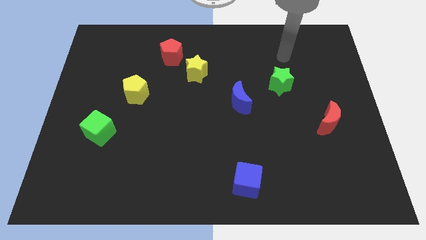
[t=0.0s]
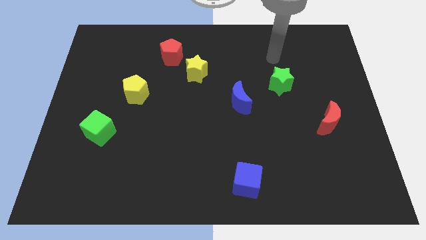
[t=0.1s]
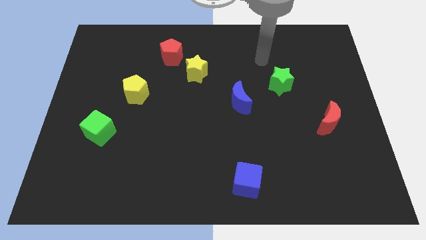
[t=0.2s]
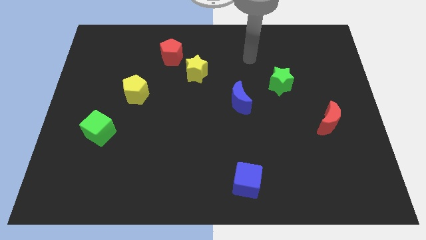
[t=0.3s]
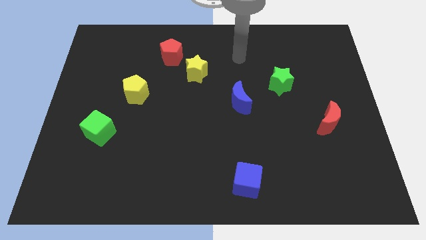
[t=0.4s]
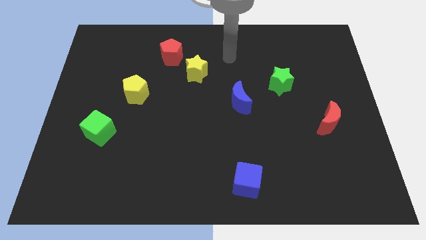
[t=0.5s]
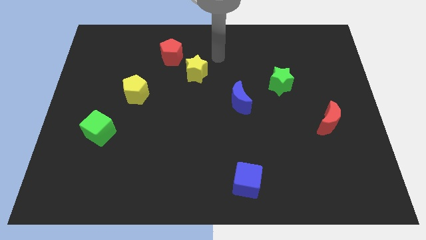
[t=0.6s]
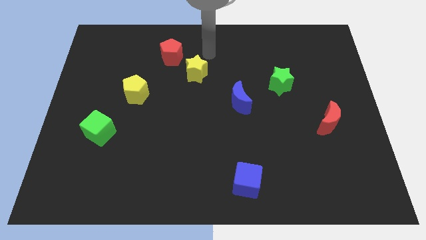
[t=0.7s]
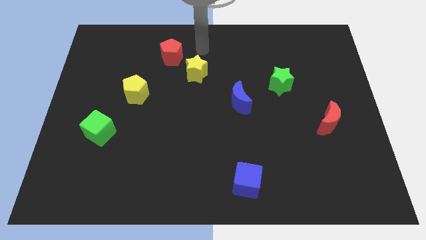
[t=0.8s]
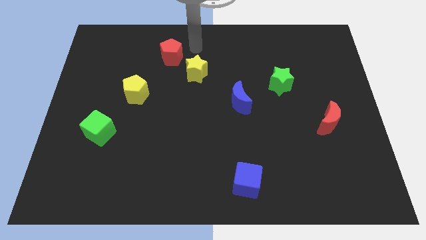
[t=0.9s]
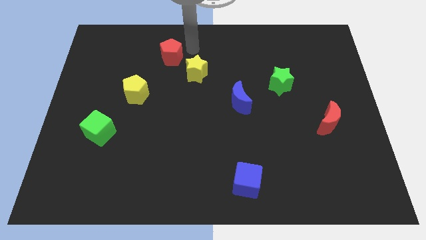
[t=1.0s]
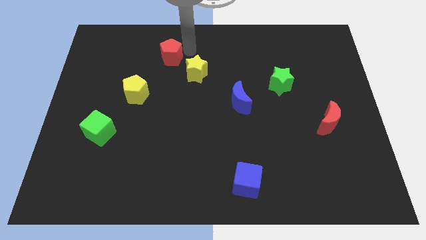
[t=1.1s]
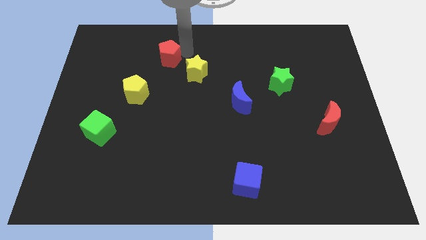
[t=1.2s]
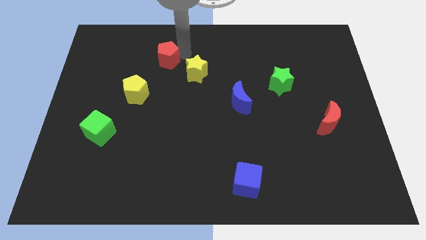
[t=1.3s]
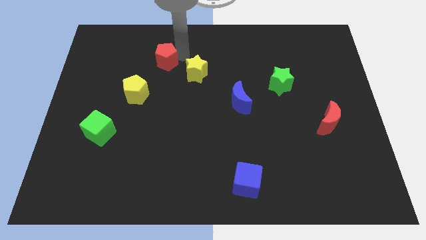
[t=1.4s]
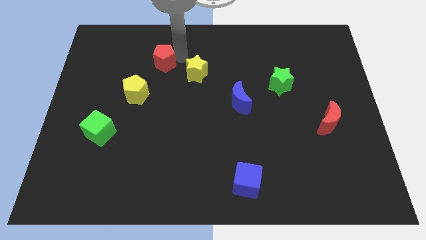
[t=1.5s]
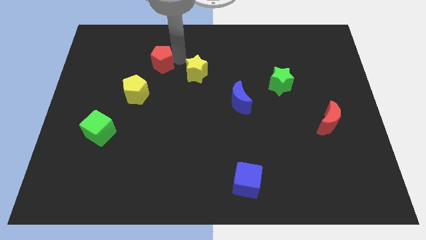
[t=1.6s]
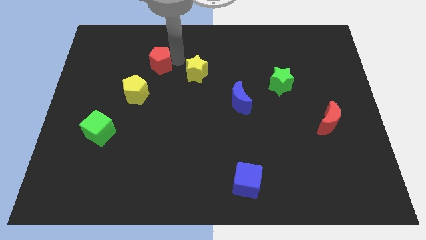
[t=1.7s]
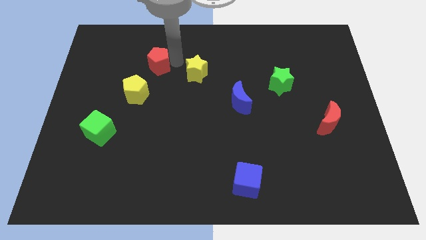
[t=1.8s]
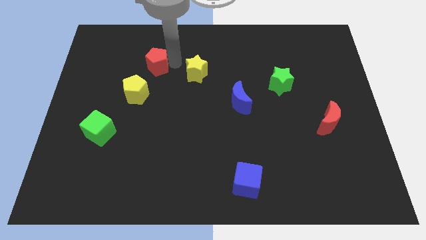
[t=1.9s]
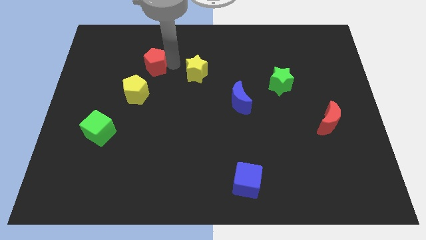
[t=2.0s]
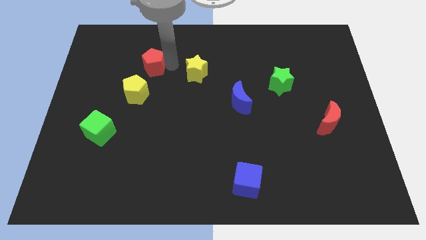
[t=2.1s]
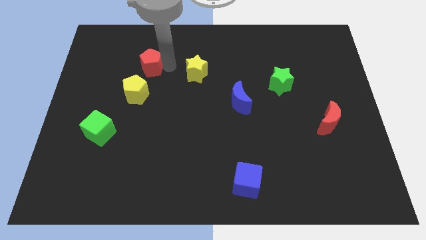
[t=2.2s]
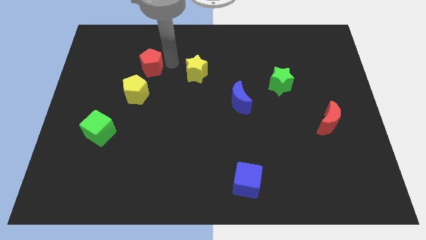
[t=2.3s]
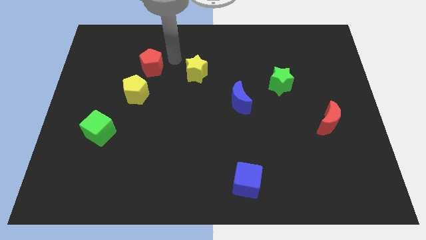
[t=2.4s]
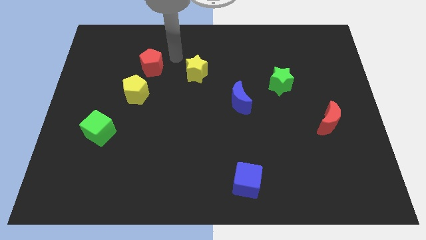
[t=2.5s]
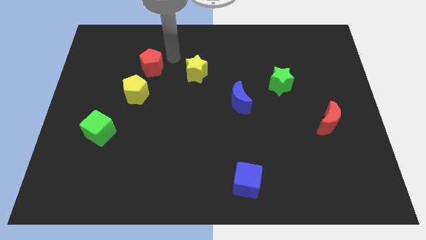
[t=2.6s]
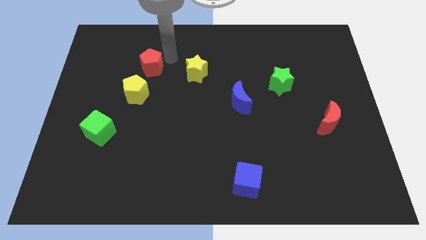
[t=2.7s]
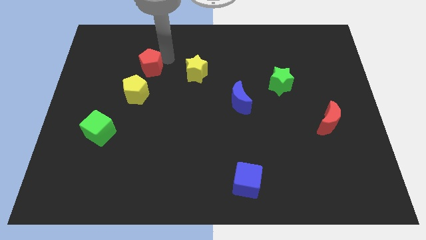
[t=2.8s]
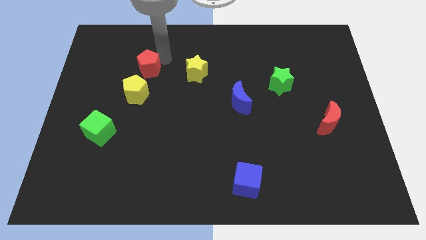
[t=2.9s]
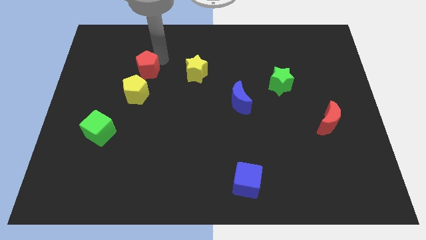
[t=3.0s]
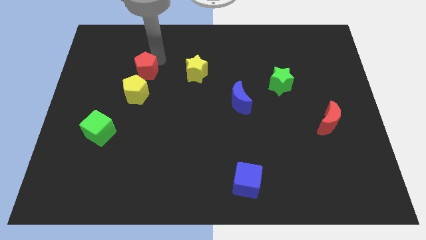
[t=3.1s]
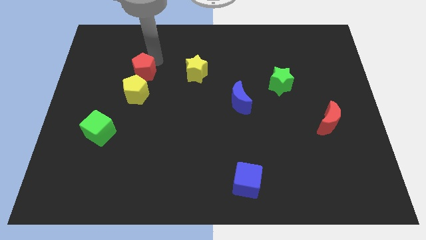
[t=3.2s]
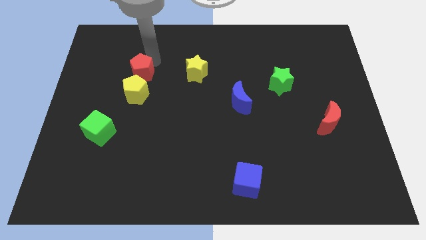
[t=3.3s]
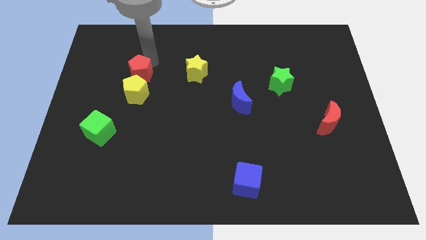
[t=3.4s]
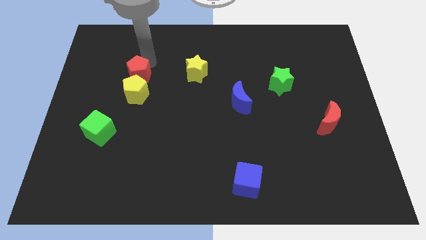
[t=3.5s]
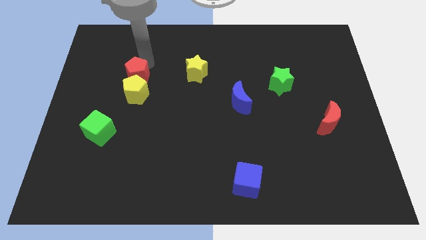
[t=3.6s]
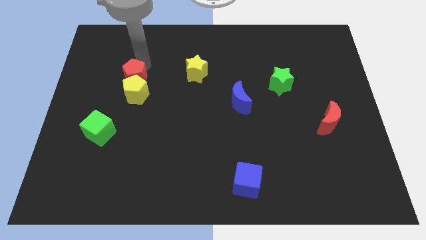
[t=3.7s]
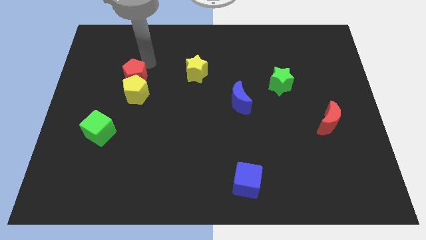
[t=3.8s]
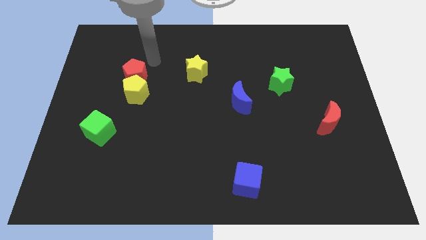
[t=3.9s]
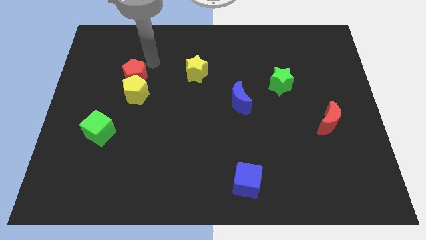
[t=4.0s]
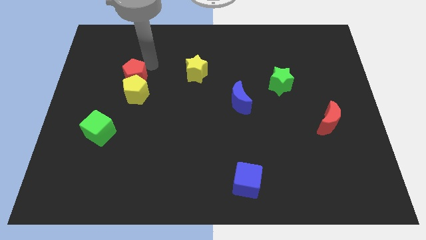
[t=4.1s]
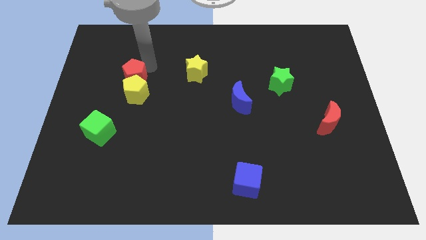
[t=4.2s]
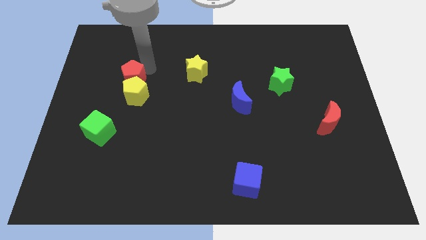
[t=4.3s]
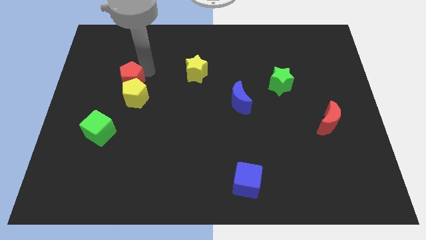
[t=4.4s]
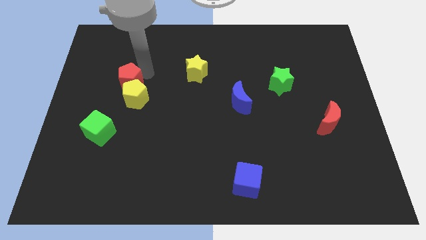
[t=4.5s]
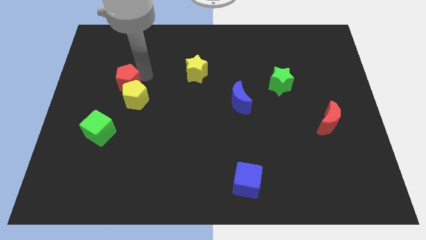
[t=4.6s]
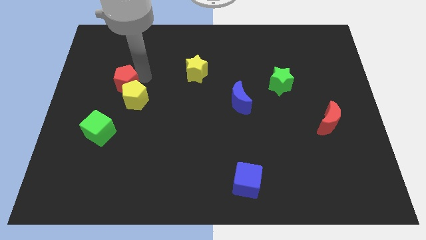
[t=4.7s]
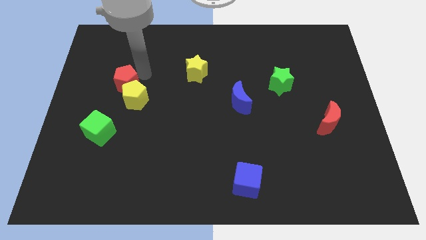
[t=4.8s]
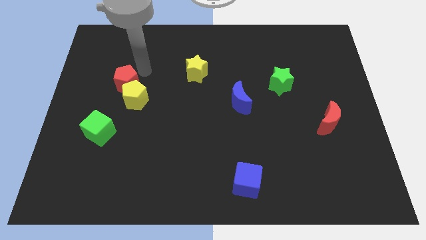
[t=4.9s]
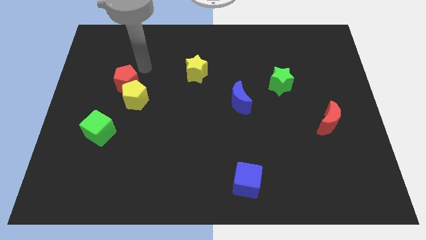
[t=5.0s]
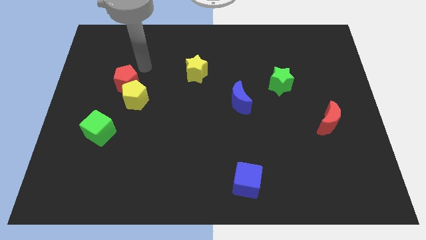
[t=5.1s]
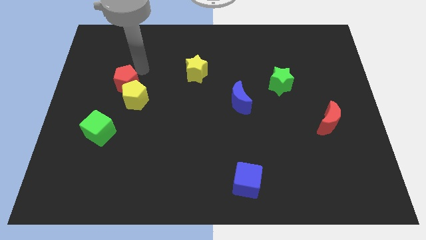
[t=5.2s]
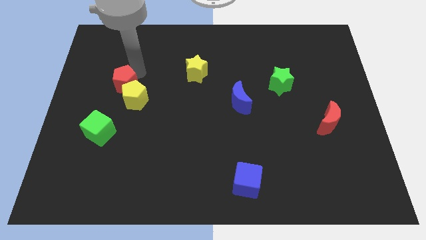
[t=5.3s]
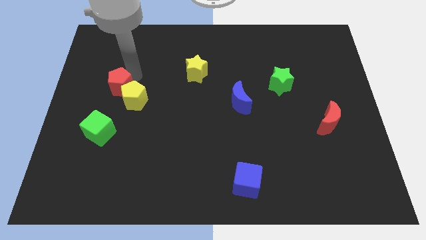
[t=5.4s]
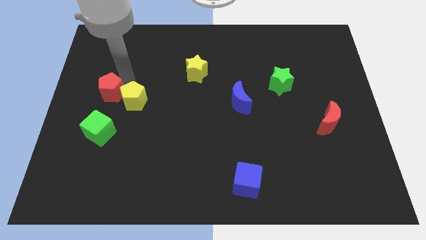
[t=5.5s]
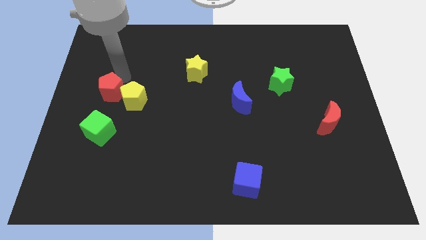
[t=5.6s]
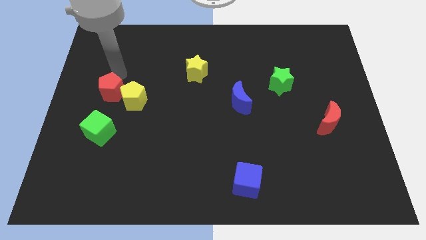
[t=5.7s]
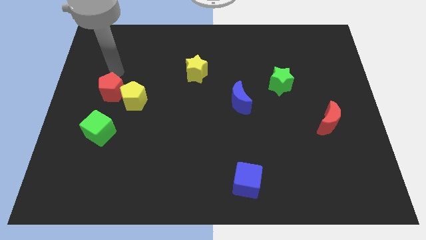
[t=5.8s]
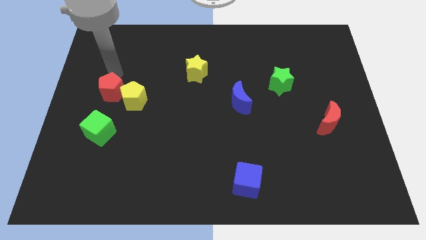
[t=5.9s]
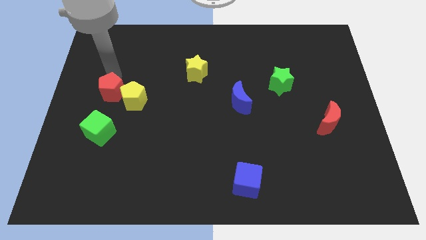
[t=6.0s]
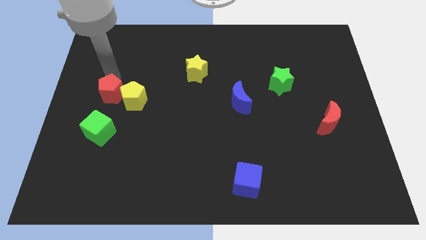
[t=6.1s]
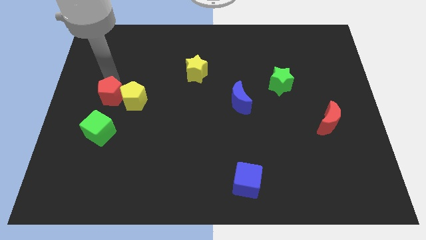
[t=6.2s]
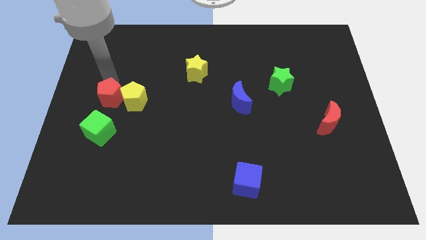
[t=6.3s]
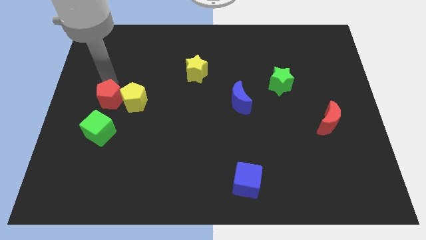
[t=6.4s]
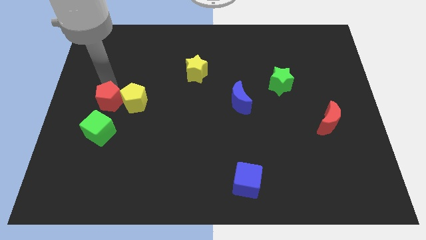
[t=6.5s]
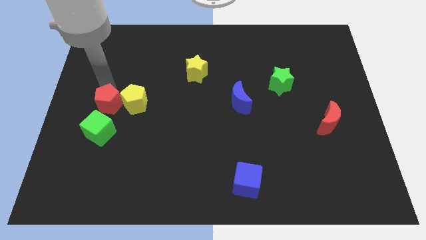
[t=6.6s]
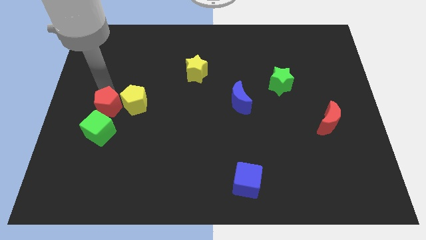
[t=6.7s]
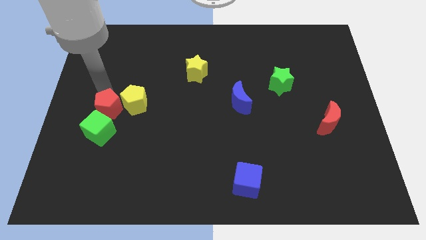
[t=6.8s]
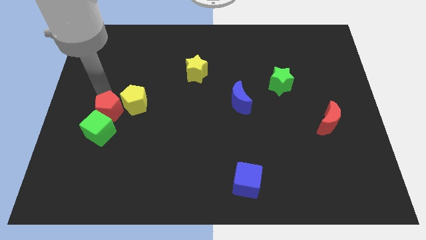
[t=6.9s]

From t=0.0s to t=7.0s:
move the red pentagon close to the green cube
